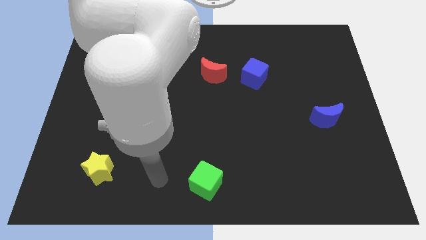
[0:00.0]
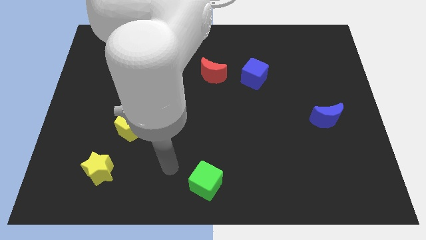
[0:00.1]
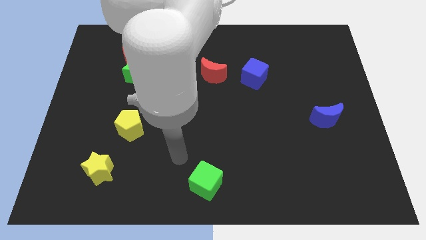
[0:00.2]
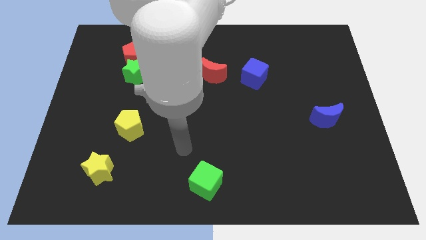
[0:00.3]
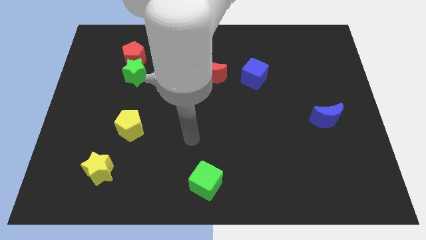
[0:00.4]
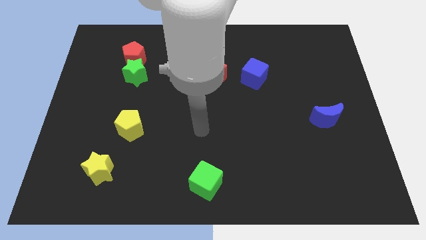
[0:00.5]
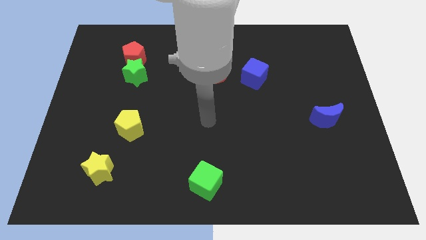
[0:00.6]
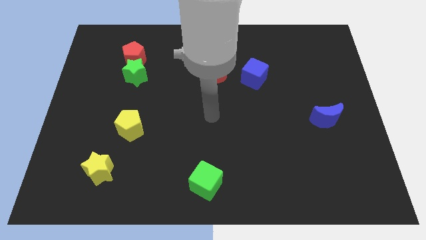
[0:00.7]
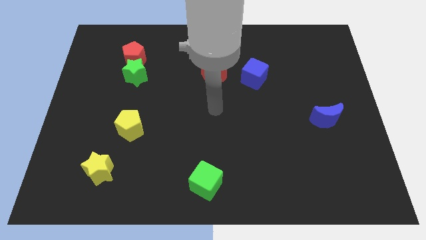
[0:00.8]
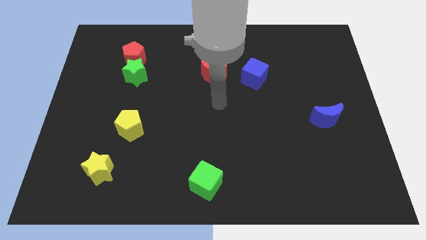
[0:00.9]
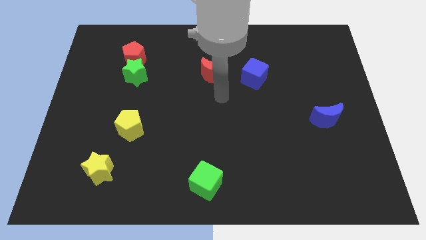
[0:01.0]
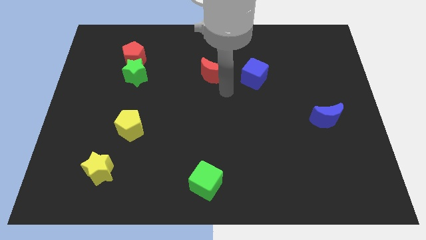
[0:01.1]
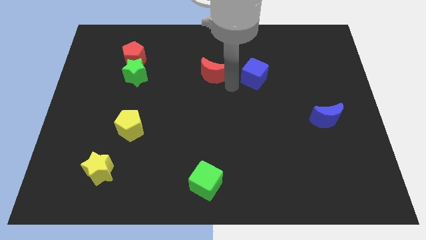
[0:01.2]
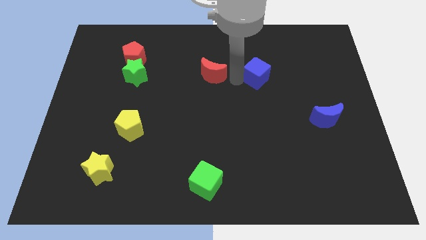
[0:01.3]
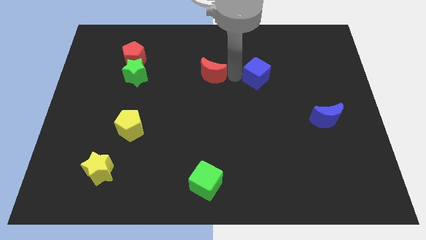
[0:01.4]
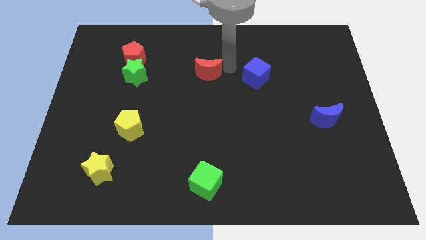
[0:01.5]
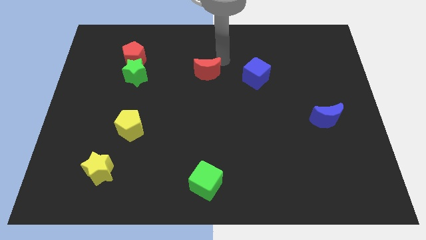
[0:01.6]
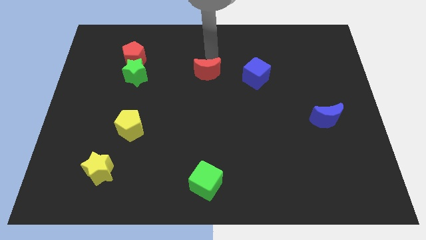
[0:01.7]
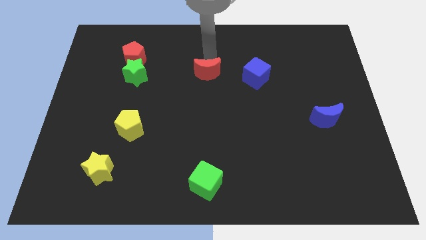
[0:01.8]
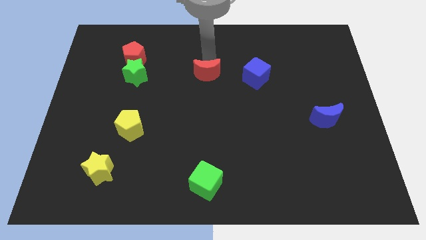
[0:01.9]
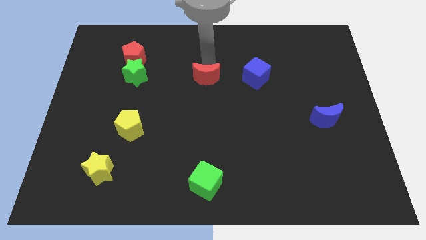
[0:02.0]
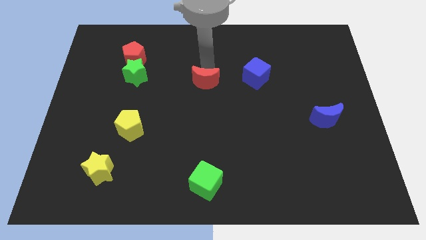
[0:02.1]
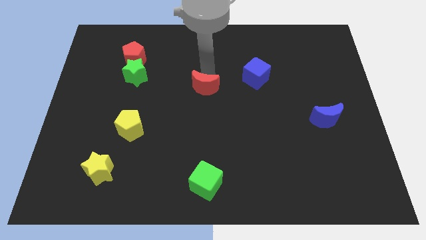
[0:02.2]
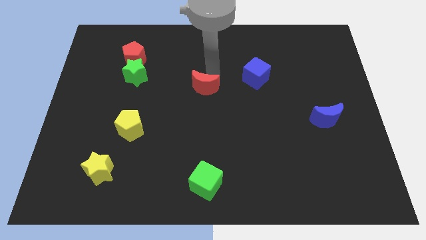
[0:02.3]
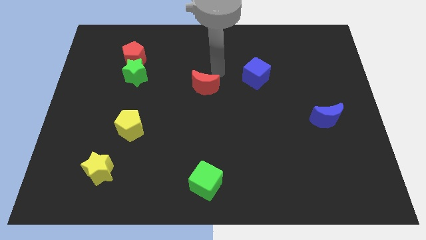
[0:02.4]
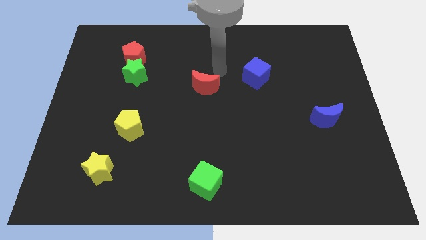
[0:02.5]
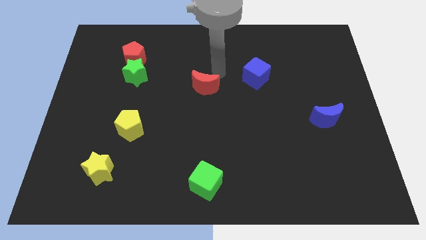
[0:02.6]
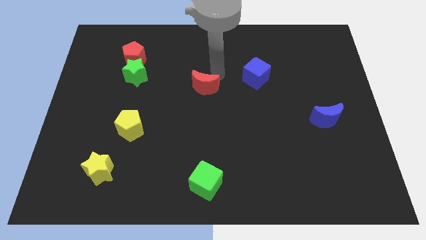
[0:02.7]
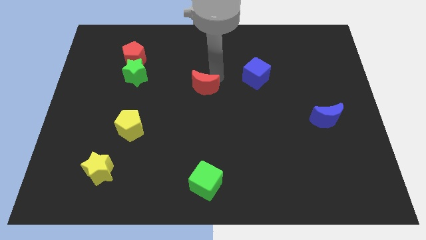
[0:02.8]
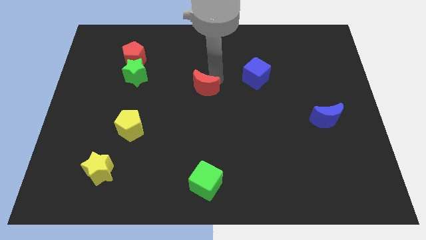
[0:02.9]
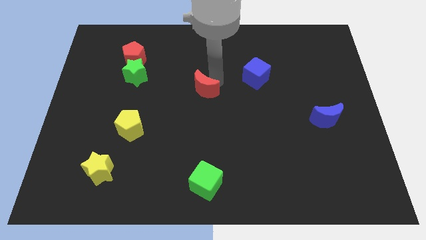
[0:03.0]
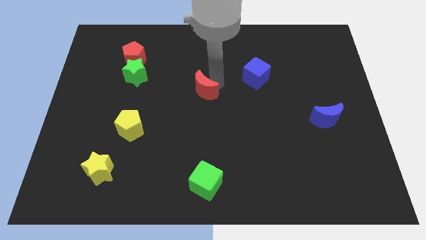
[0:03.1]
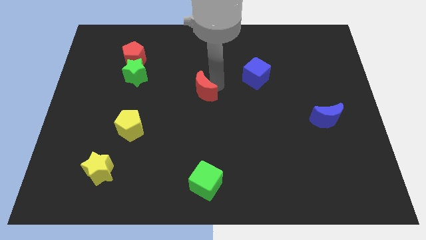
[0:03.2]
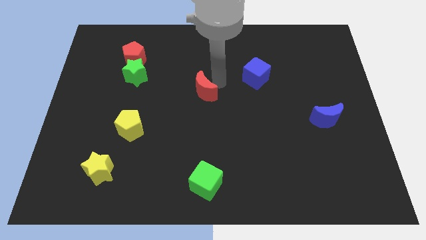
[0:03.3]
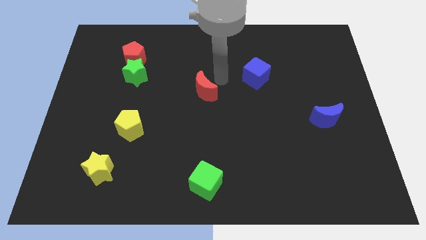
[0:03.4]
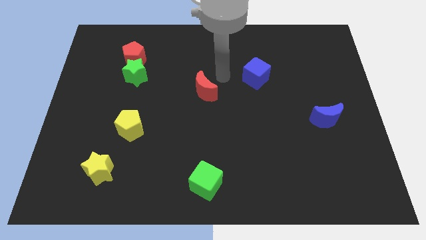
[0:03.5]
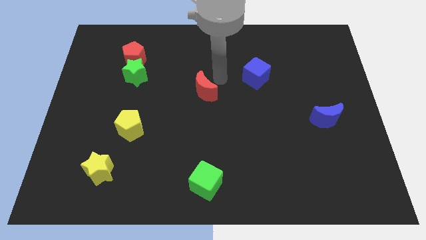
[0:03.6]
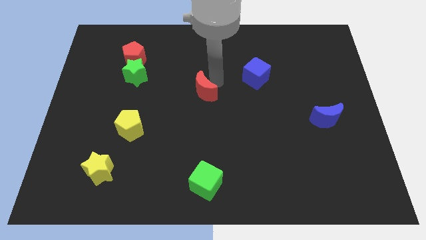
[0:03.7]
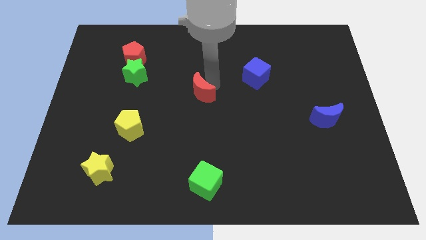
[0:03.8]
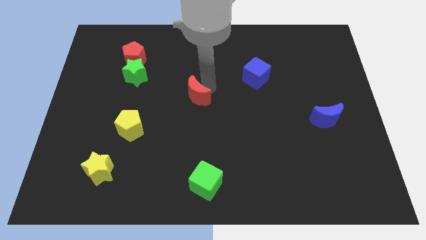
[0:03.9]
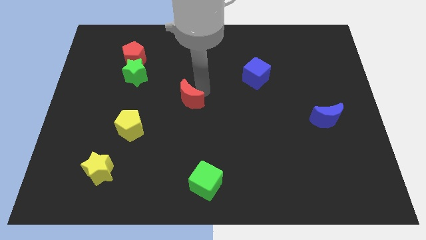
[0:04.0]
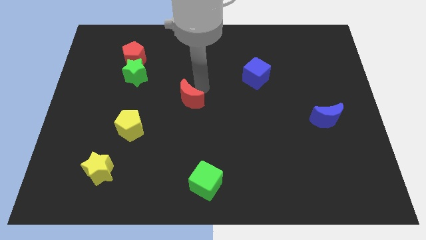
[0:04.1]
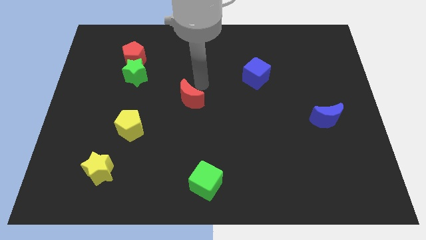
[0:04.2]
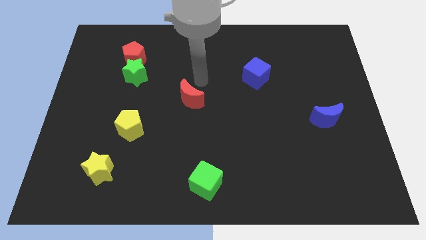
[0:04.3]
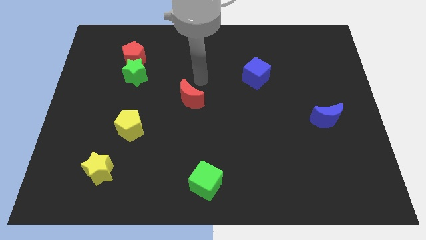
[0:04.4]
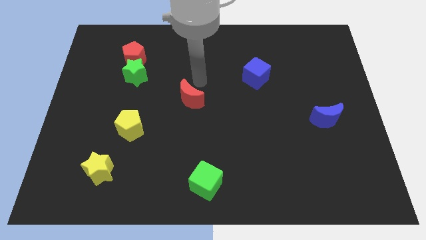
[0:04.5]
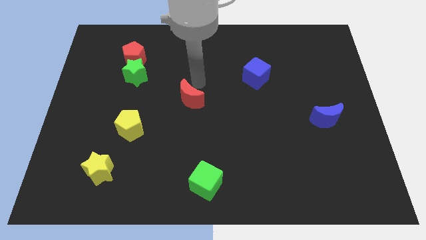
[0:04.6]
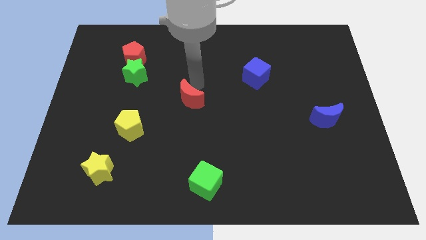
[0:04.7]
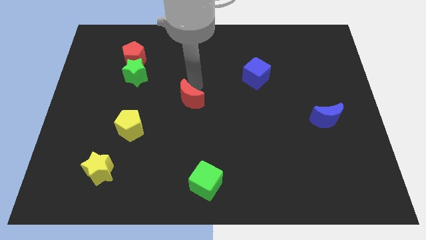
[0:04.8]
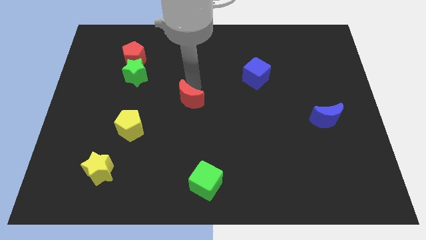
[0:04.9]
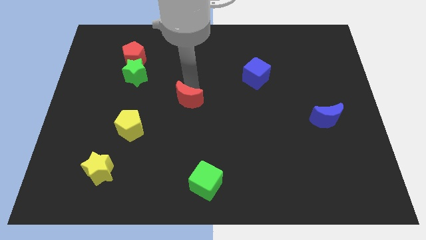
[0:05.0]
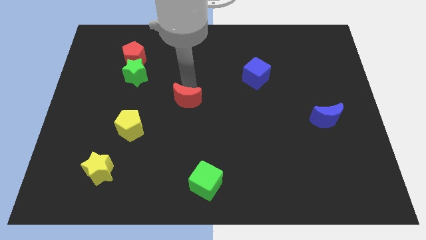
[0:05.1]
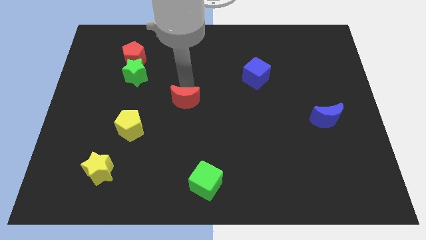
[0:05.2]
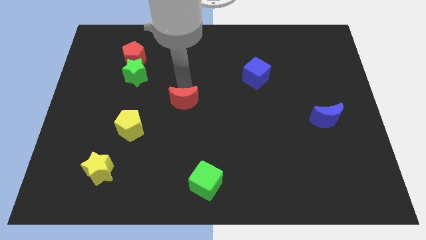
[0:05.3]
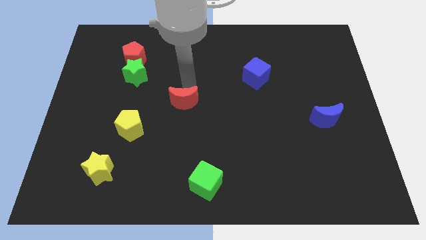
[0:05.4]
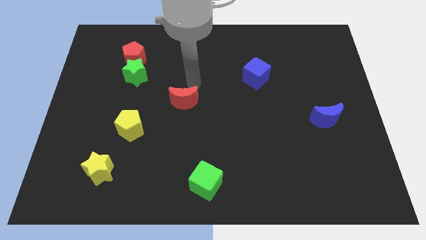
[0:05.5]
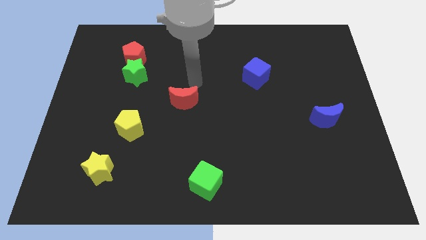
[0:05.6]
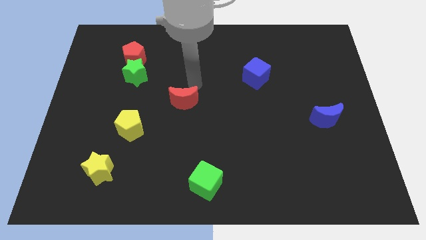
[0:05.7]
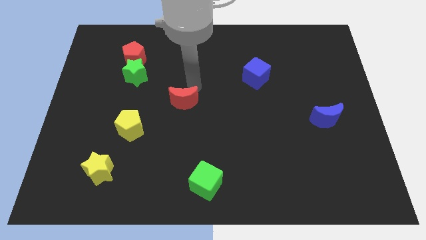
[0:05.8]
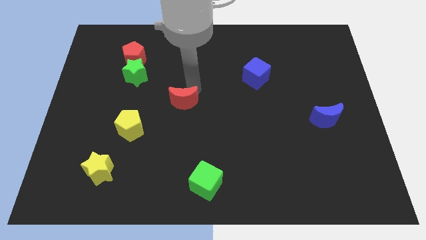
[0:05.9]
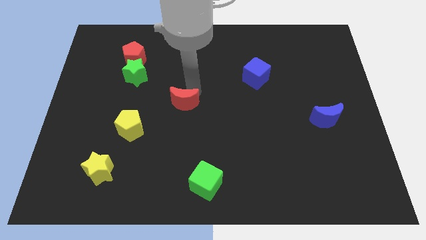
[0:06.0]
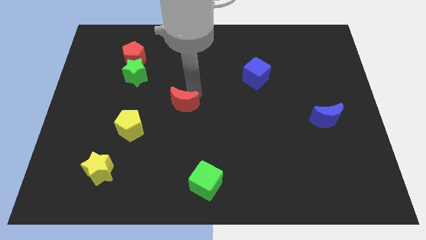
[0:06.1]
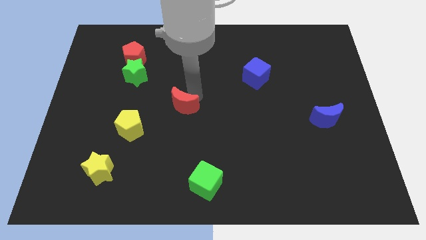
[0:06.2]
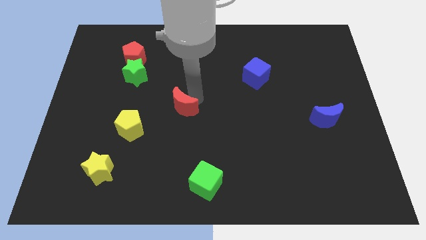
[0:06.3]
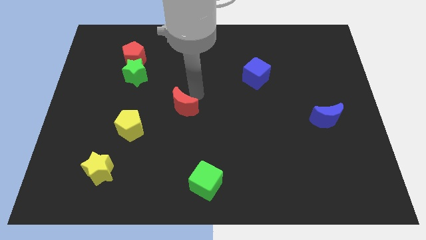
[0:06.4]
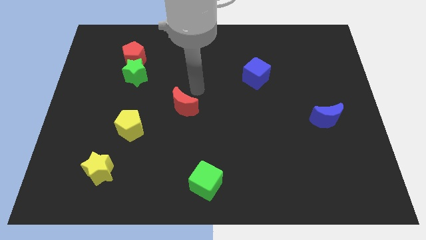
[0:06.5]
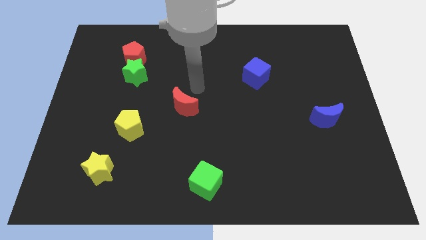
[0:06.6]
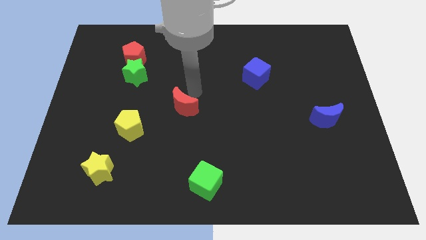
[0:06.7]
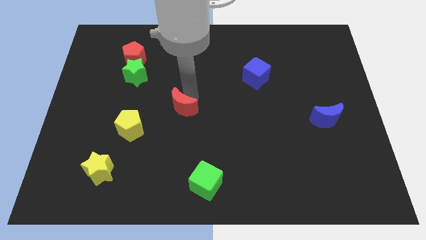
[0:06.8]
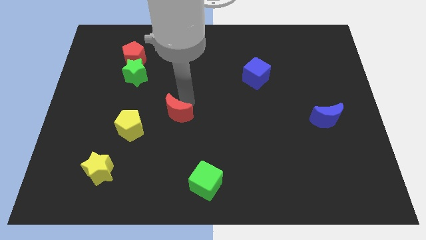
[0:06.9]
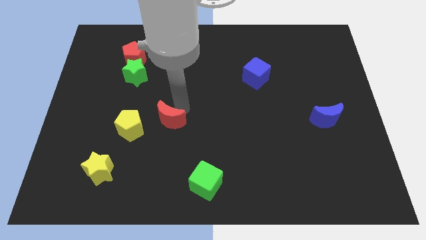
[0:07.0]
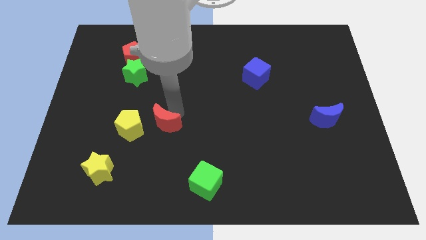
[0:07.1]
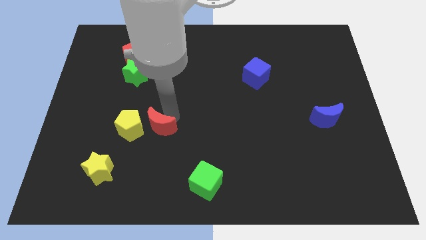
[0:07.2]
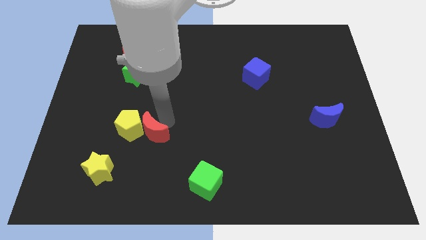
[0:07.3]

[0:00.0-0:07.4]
move the red moon downwards and then to the left

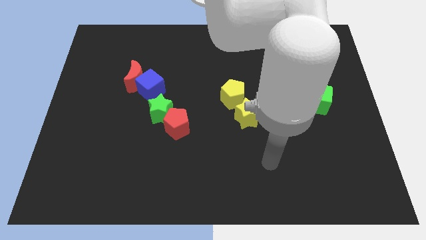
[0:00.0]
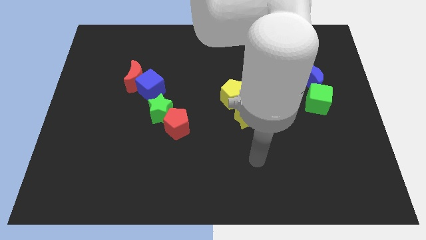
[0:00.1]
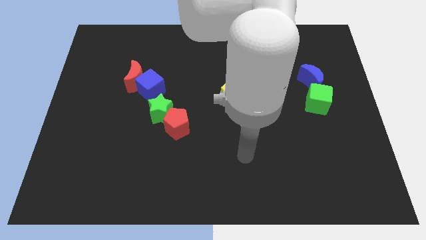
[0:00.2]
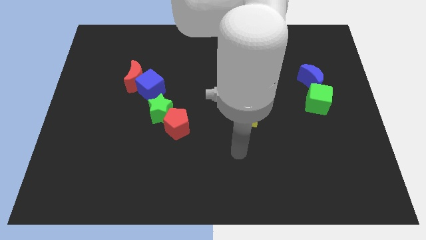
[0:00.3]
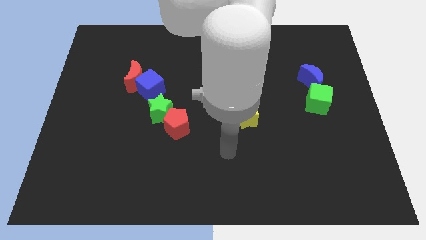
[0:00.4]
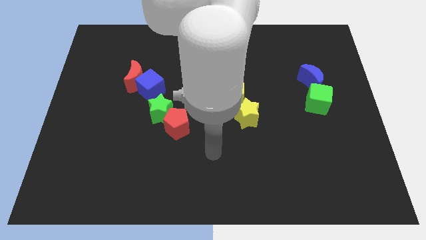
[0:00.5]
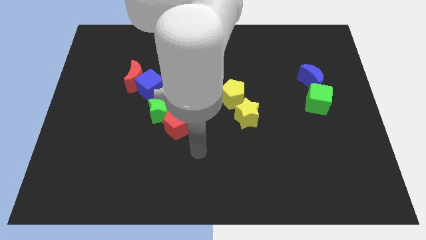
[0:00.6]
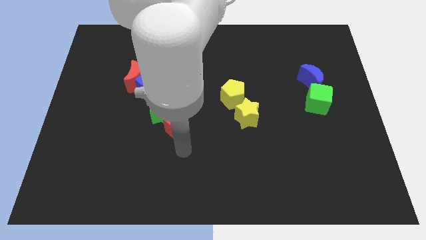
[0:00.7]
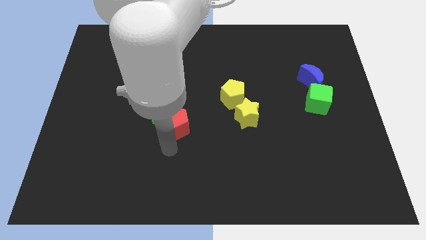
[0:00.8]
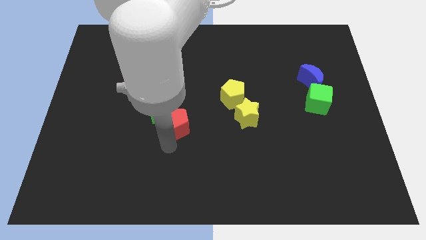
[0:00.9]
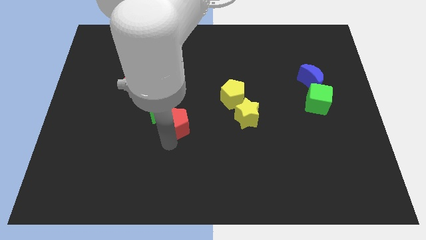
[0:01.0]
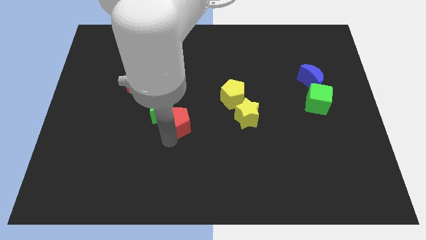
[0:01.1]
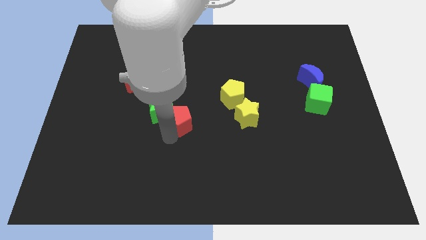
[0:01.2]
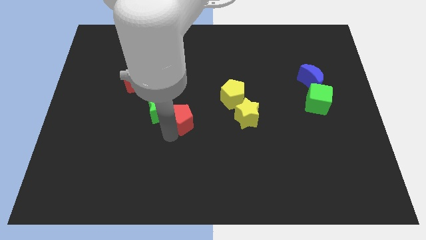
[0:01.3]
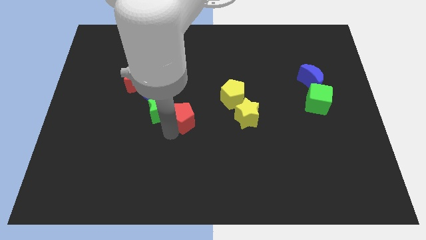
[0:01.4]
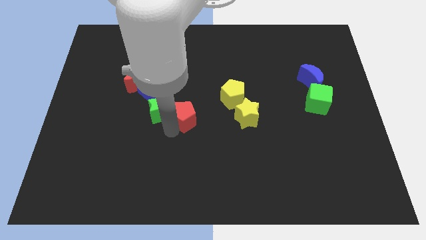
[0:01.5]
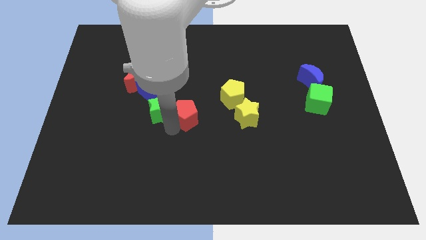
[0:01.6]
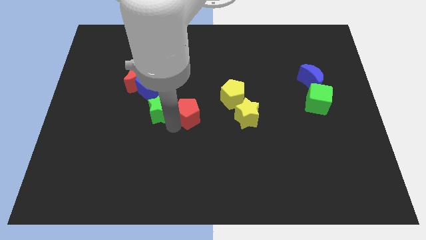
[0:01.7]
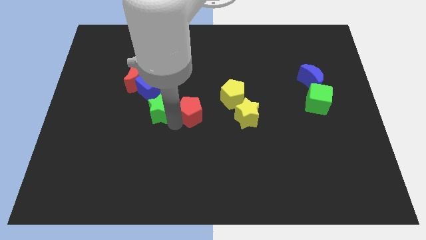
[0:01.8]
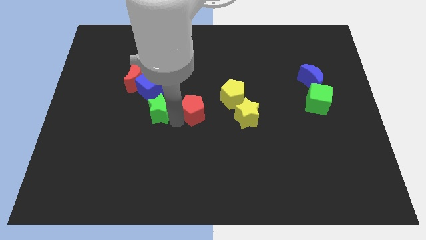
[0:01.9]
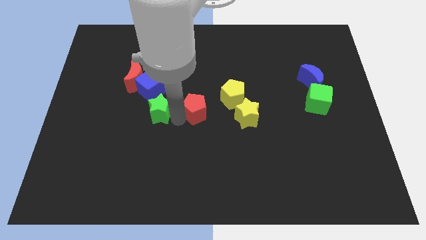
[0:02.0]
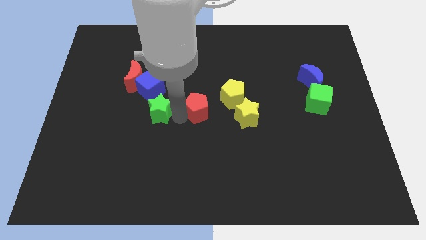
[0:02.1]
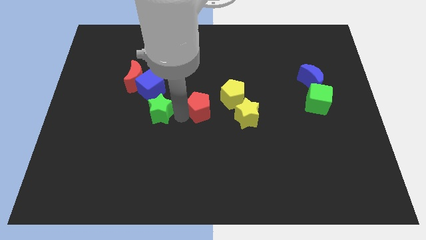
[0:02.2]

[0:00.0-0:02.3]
push the red pentagon slightly upwards and to the right
